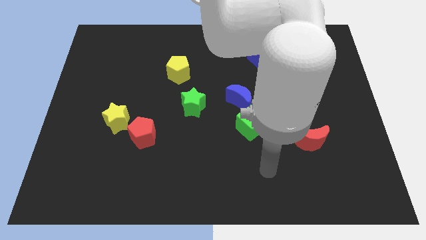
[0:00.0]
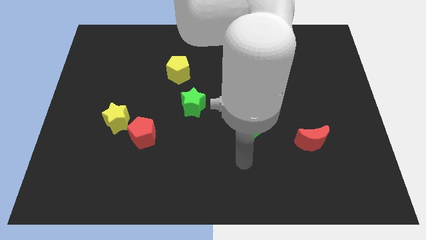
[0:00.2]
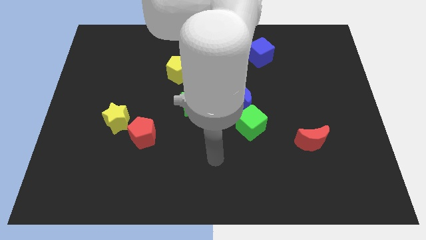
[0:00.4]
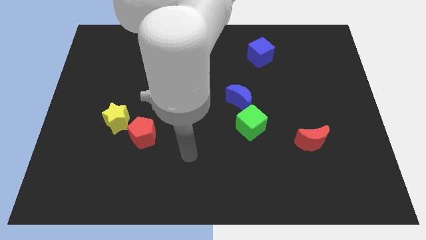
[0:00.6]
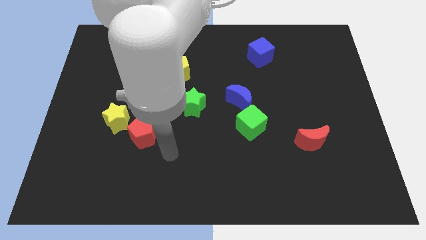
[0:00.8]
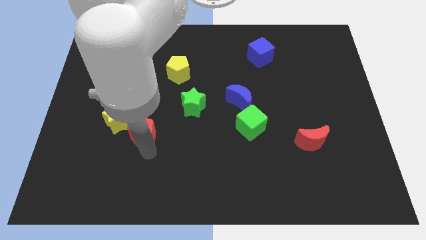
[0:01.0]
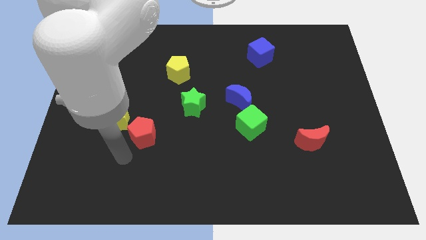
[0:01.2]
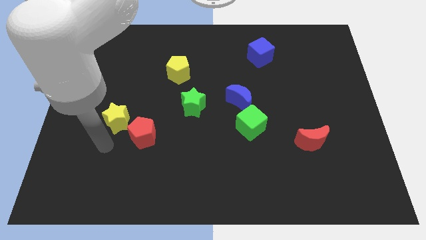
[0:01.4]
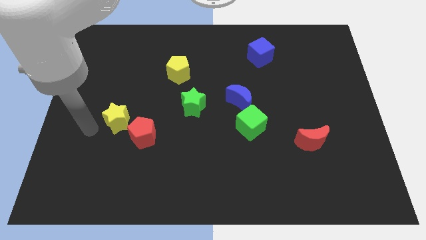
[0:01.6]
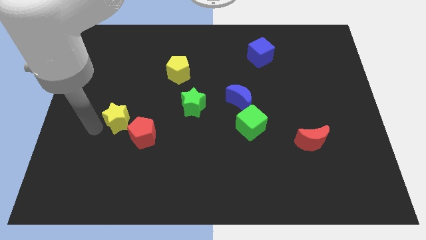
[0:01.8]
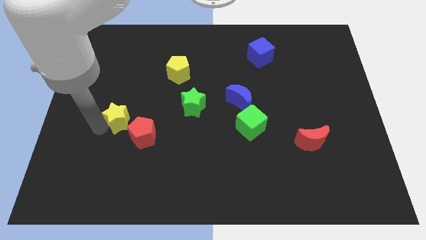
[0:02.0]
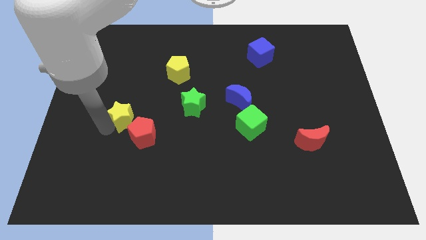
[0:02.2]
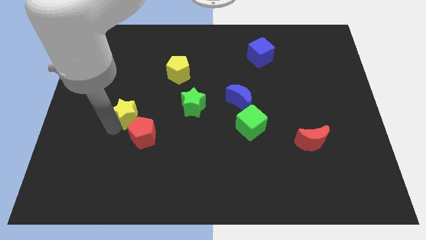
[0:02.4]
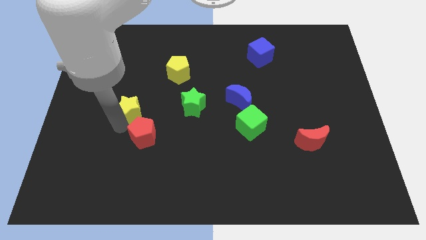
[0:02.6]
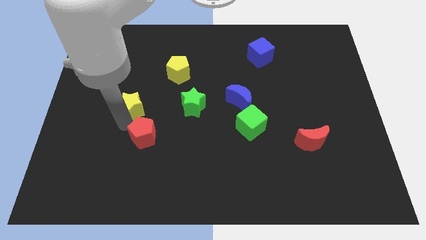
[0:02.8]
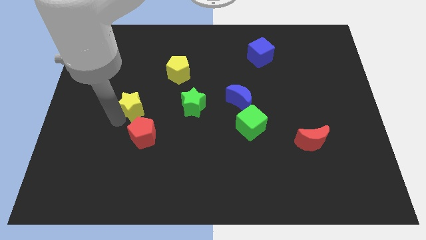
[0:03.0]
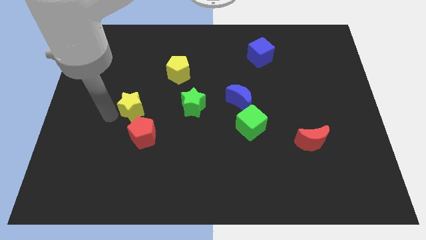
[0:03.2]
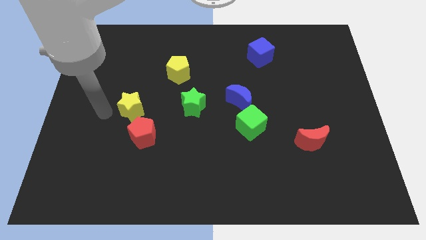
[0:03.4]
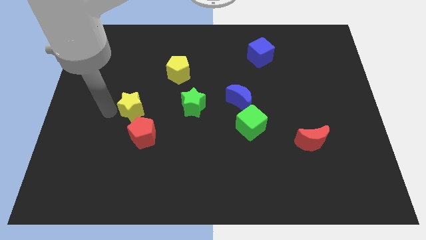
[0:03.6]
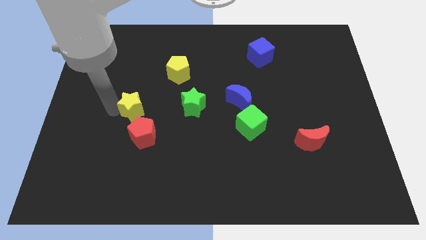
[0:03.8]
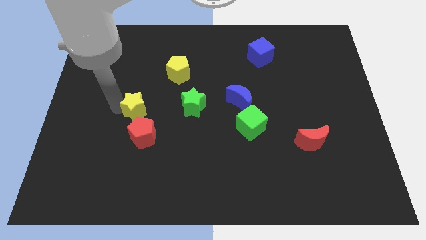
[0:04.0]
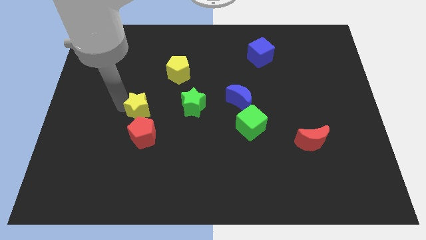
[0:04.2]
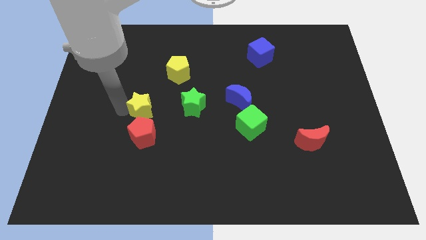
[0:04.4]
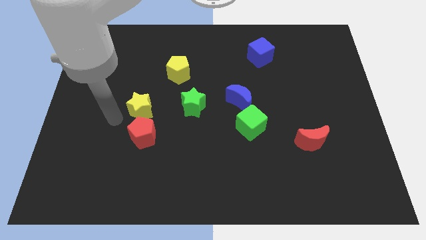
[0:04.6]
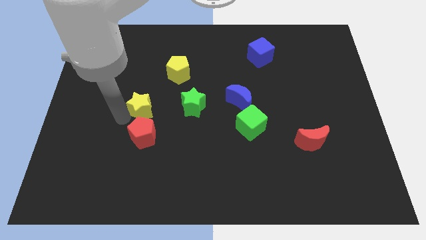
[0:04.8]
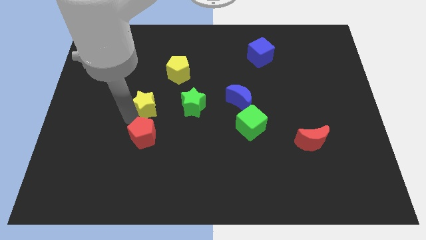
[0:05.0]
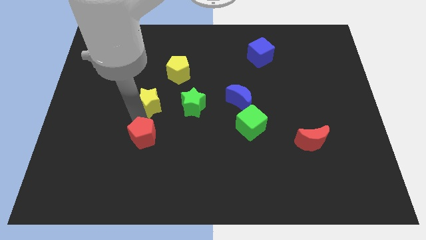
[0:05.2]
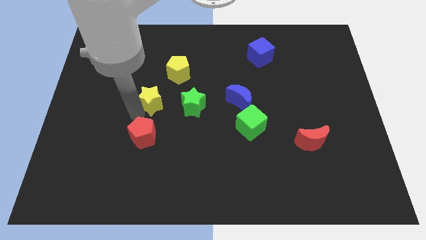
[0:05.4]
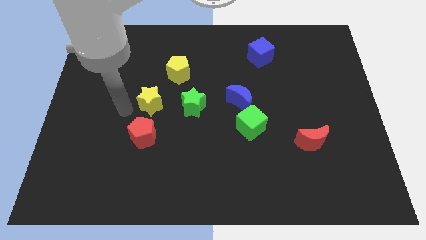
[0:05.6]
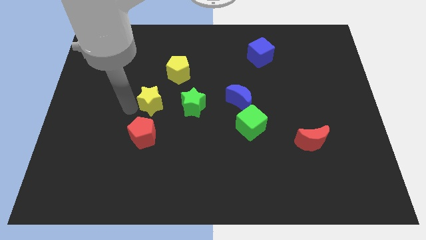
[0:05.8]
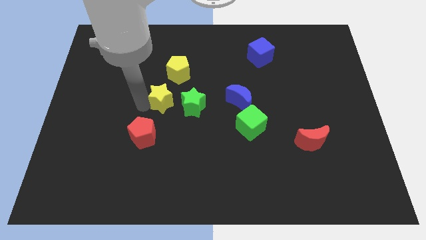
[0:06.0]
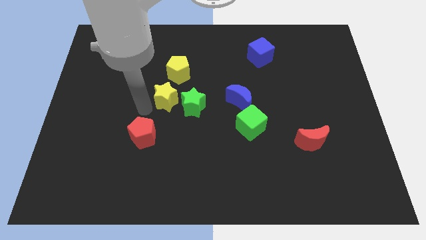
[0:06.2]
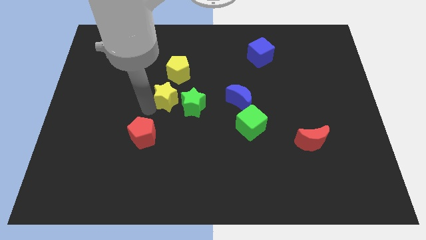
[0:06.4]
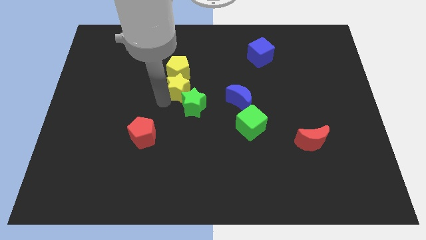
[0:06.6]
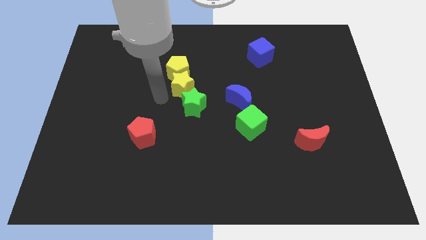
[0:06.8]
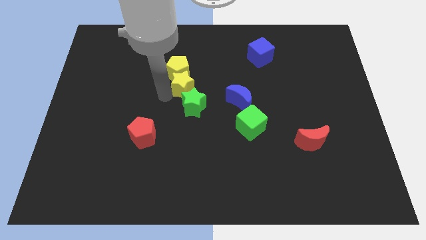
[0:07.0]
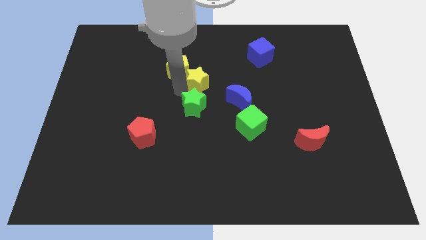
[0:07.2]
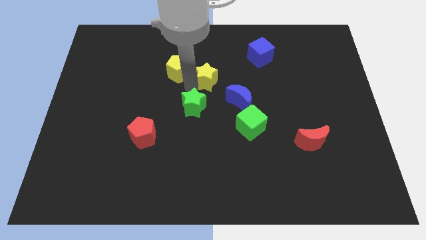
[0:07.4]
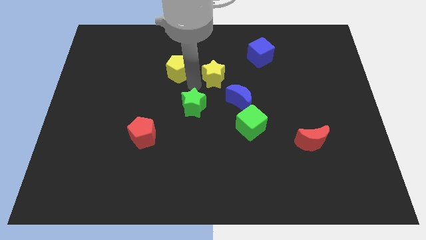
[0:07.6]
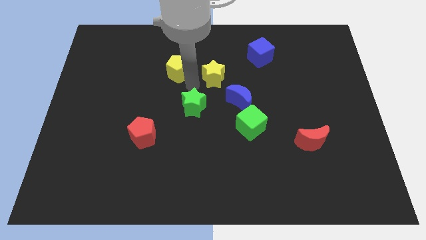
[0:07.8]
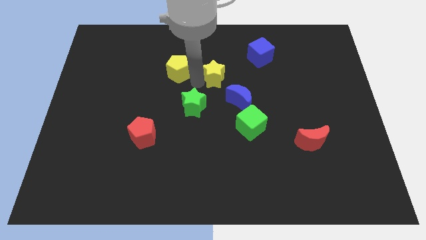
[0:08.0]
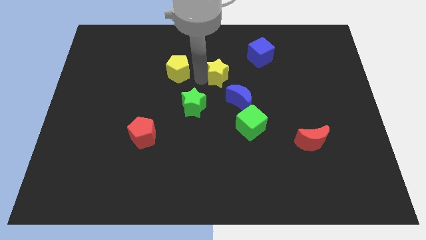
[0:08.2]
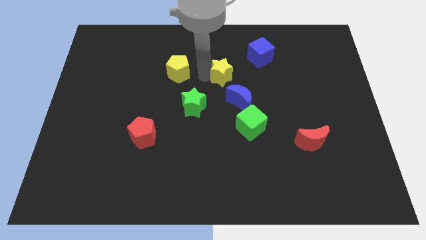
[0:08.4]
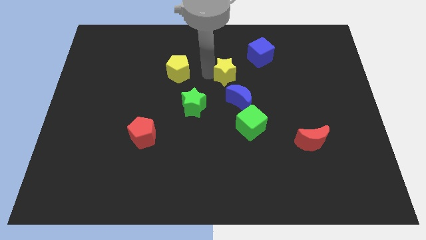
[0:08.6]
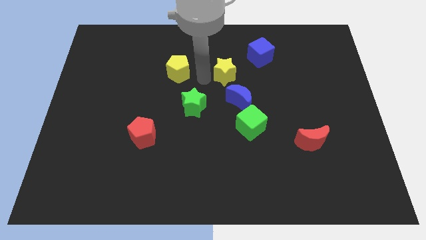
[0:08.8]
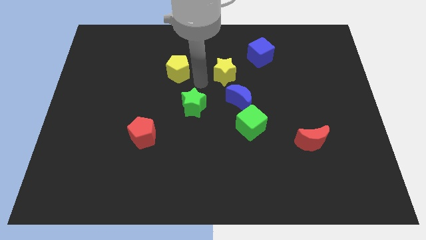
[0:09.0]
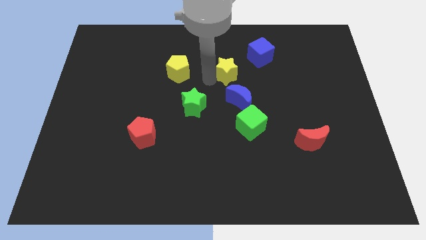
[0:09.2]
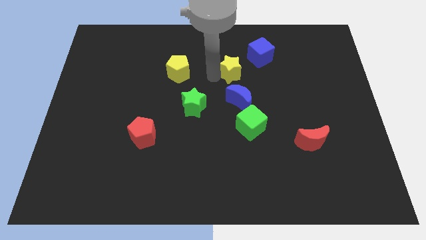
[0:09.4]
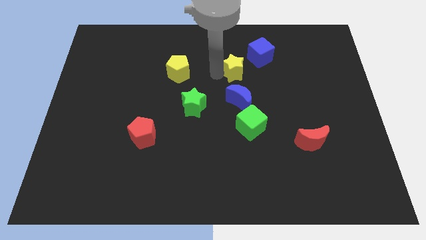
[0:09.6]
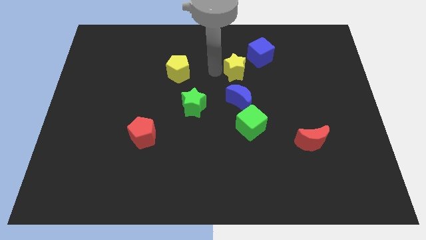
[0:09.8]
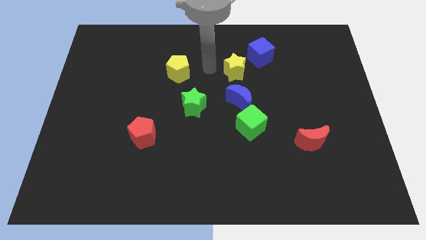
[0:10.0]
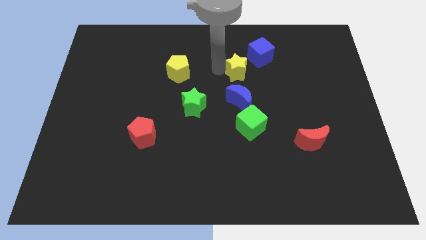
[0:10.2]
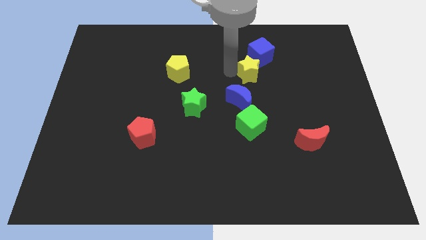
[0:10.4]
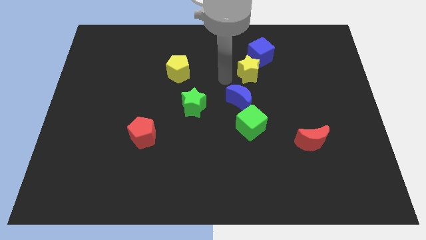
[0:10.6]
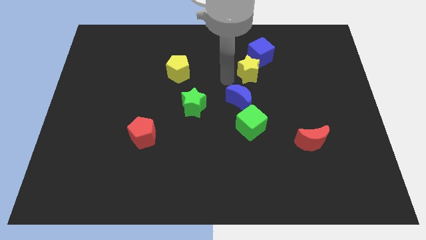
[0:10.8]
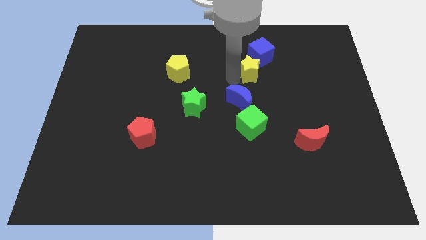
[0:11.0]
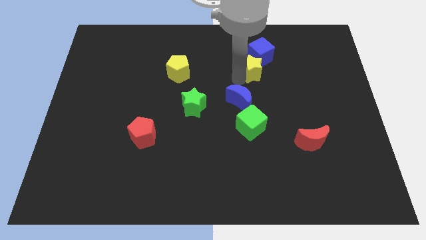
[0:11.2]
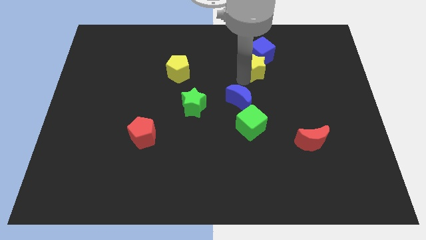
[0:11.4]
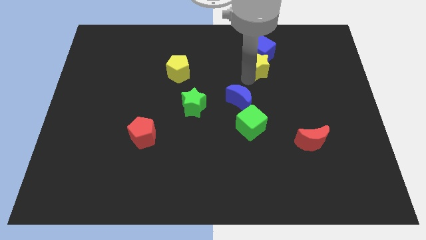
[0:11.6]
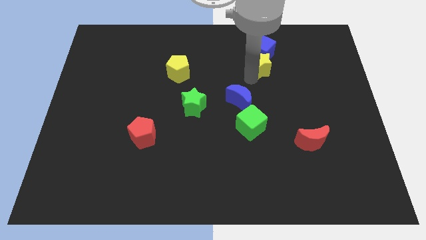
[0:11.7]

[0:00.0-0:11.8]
put the yellow star to the bottom right side of the blue cube

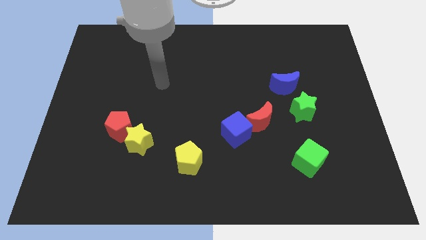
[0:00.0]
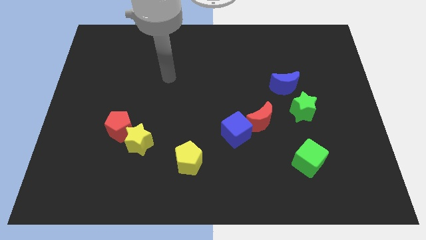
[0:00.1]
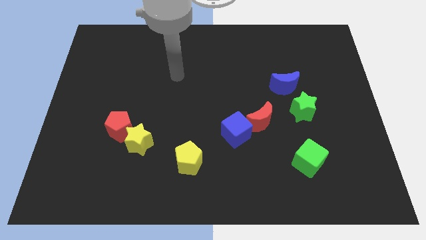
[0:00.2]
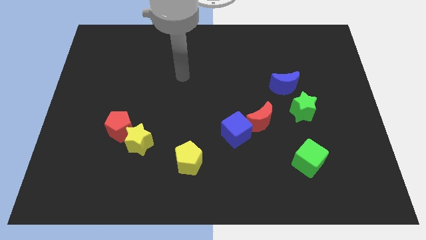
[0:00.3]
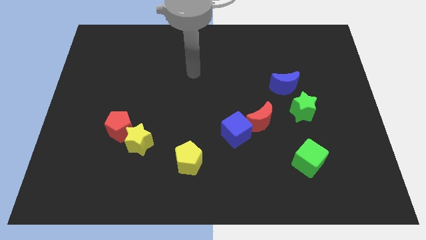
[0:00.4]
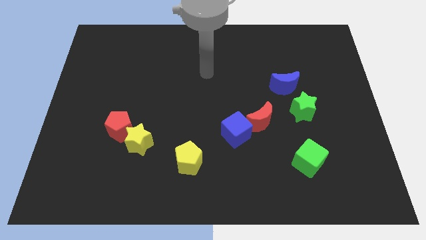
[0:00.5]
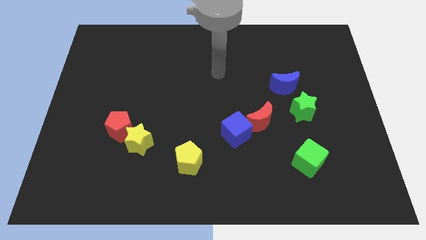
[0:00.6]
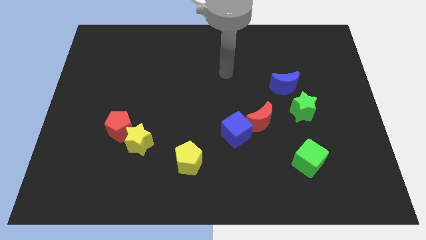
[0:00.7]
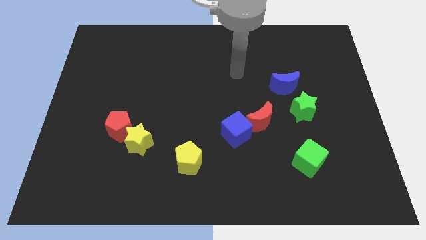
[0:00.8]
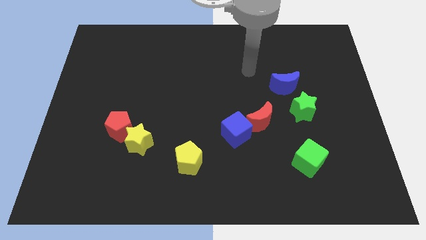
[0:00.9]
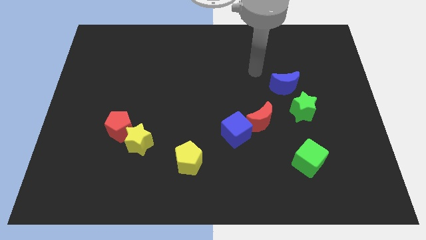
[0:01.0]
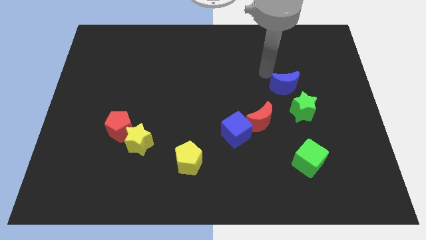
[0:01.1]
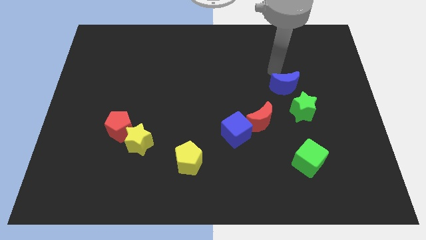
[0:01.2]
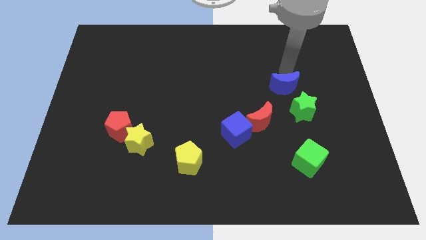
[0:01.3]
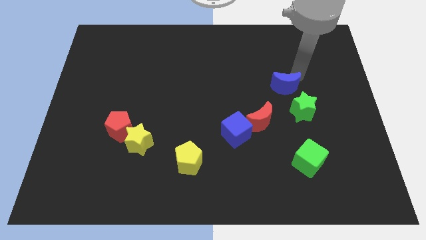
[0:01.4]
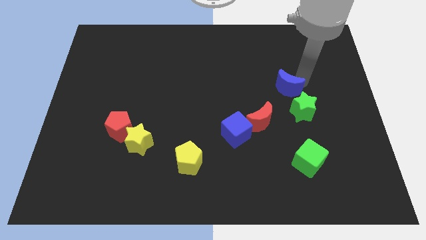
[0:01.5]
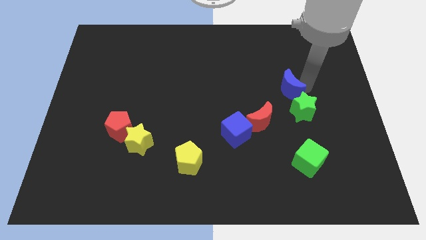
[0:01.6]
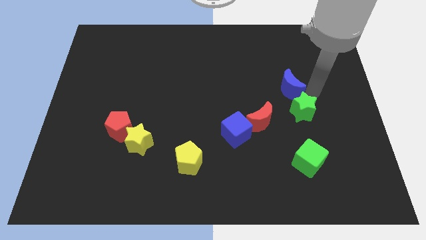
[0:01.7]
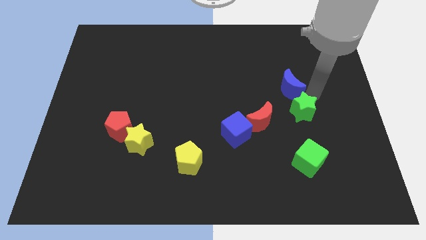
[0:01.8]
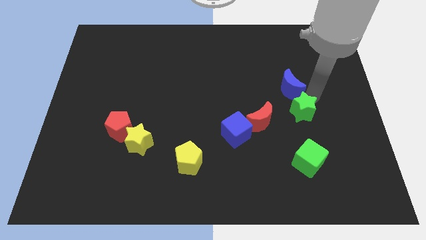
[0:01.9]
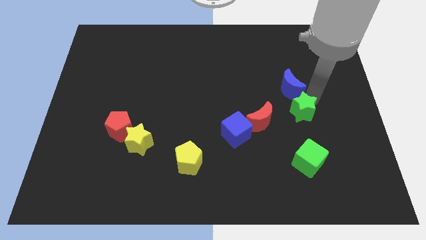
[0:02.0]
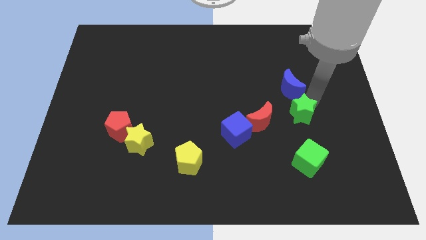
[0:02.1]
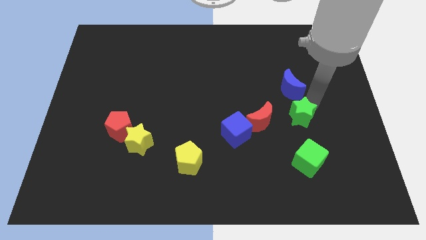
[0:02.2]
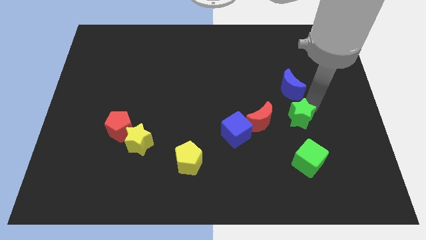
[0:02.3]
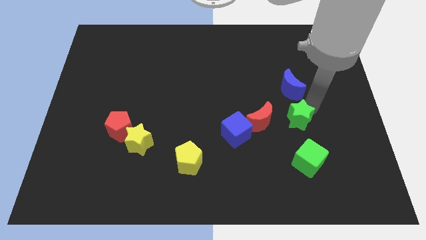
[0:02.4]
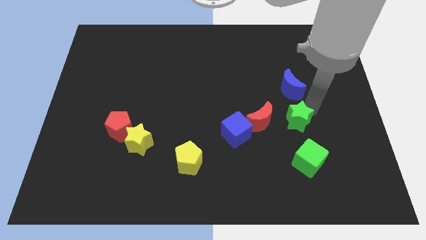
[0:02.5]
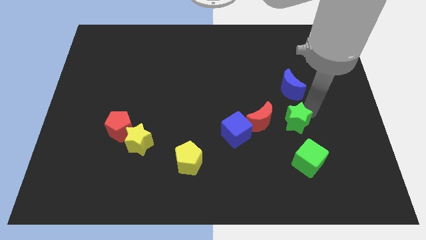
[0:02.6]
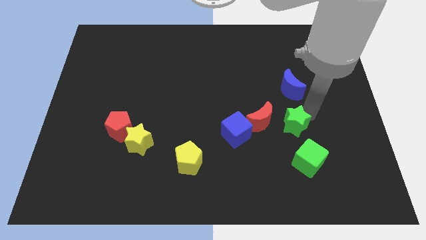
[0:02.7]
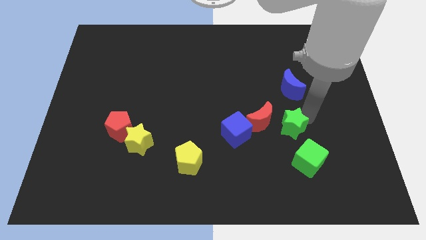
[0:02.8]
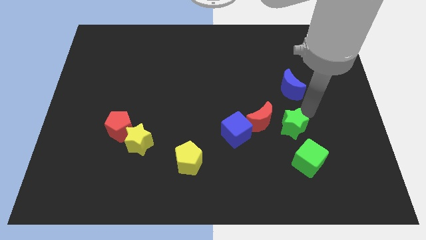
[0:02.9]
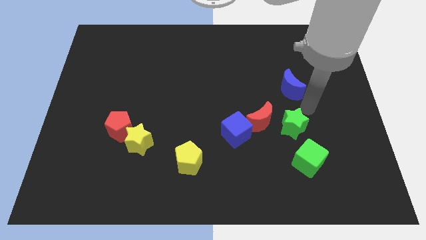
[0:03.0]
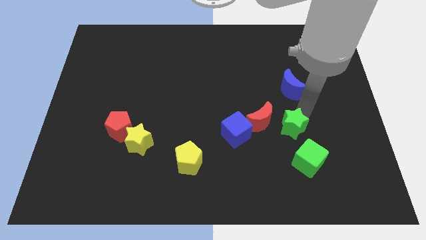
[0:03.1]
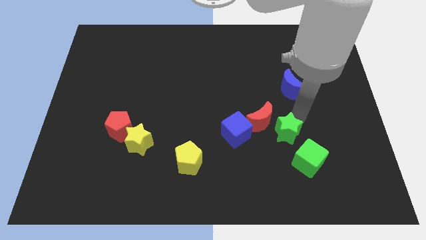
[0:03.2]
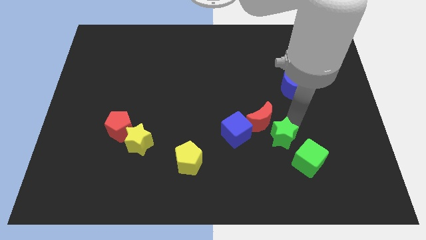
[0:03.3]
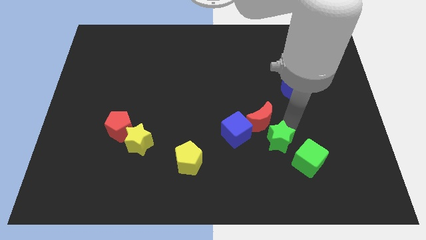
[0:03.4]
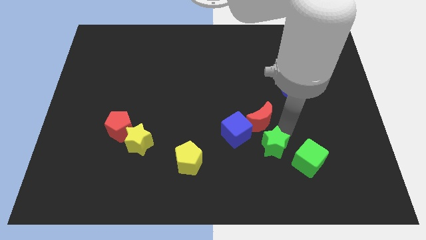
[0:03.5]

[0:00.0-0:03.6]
push the green star to the left side of the green cube
